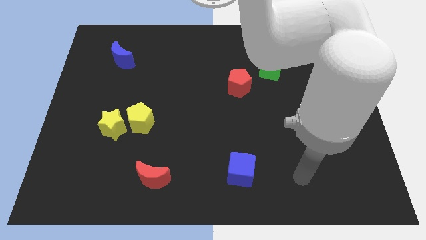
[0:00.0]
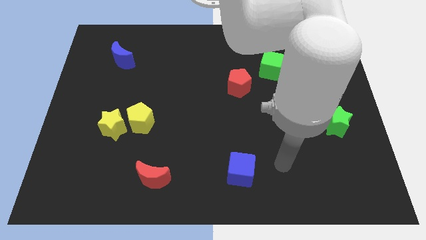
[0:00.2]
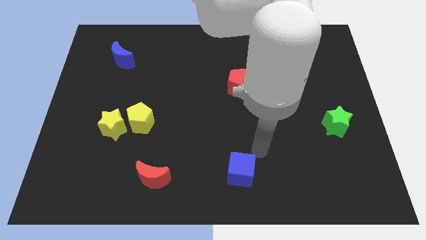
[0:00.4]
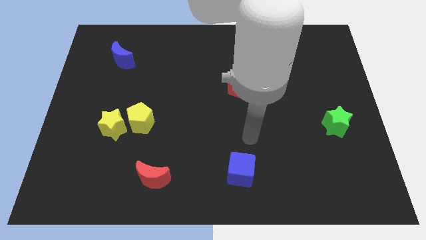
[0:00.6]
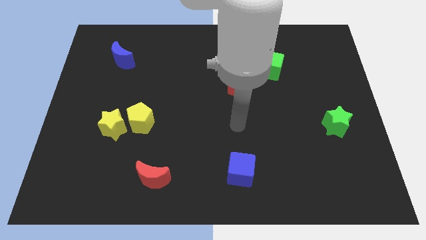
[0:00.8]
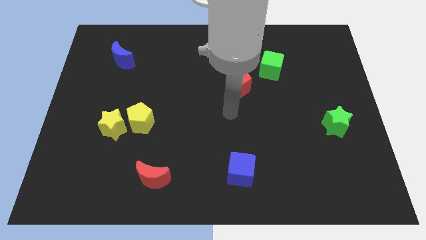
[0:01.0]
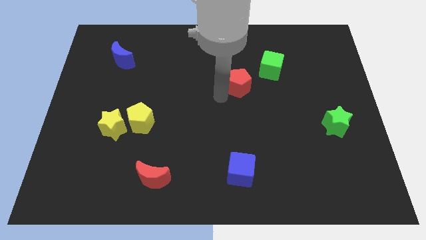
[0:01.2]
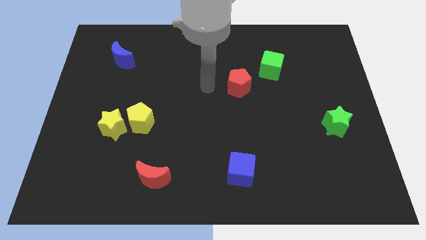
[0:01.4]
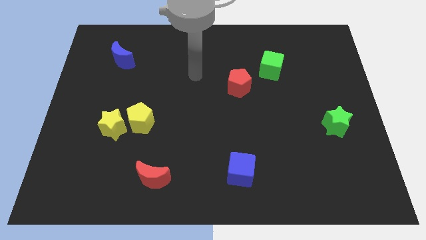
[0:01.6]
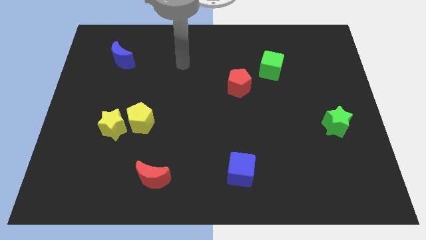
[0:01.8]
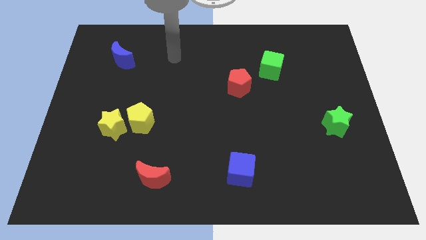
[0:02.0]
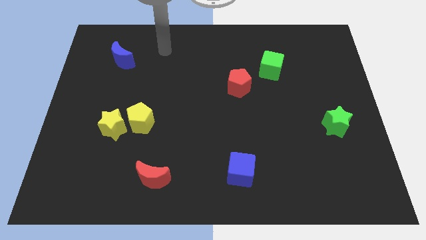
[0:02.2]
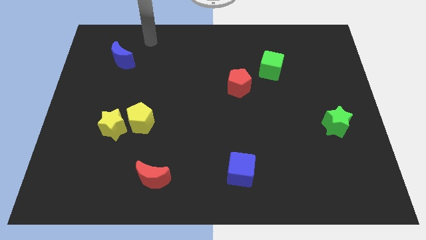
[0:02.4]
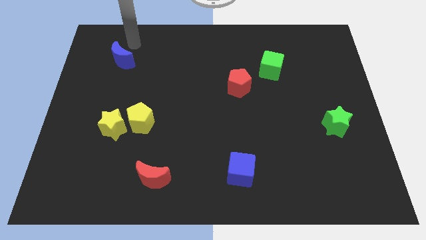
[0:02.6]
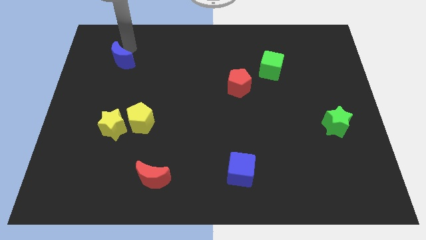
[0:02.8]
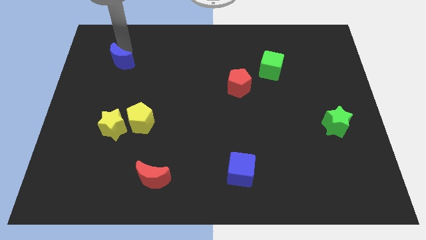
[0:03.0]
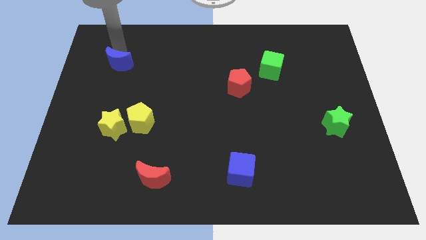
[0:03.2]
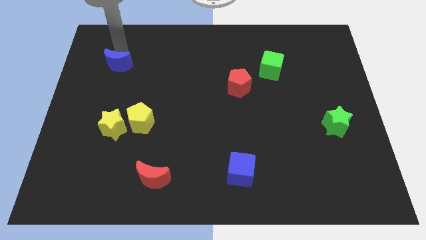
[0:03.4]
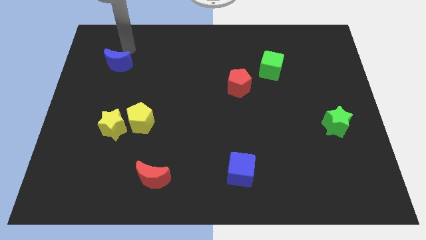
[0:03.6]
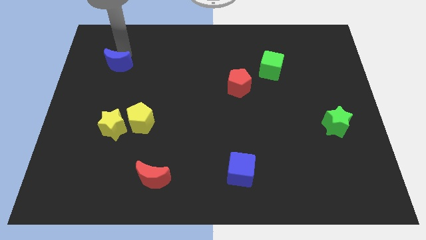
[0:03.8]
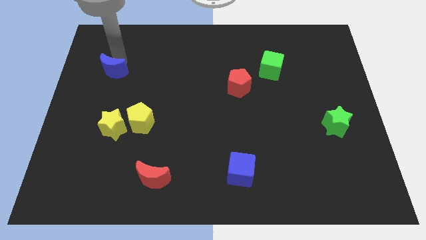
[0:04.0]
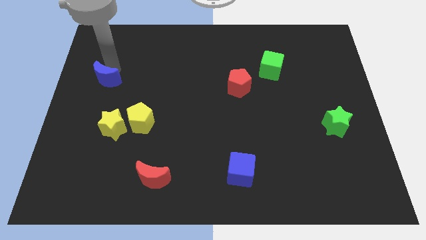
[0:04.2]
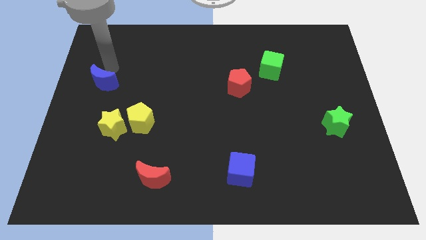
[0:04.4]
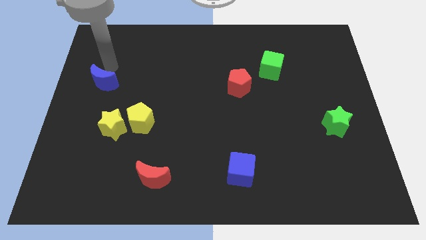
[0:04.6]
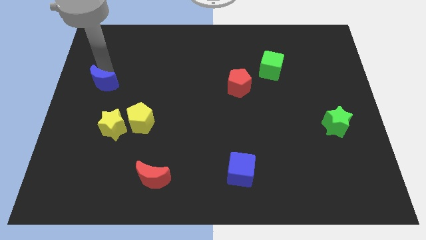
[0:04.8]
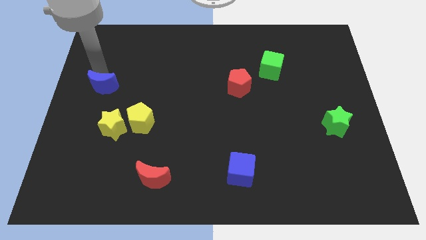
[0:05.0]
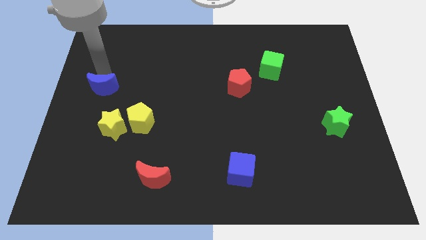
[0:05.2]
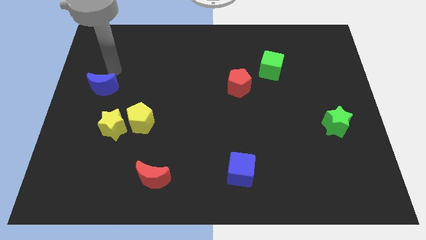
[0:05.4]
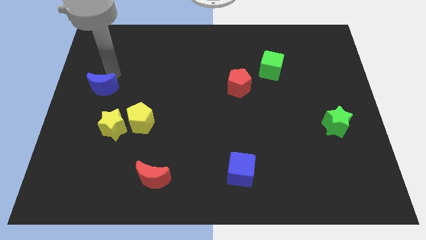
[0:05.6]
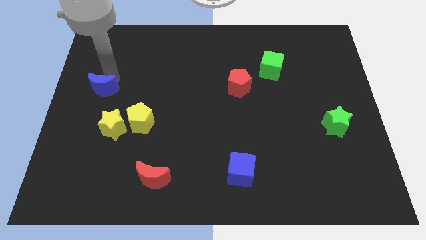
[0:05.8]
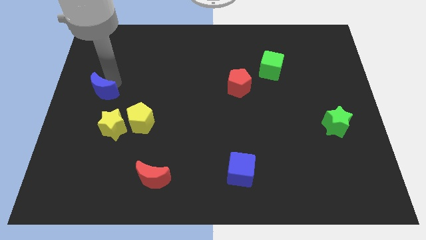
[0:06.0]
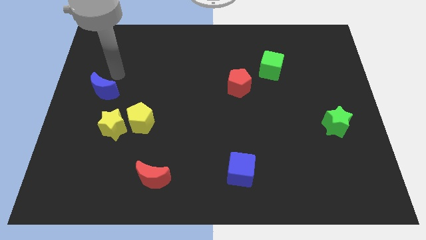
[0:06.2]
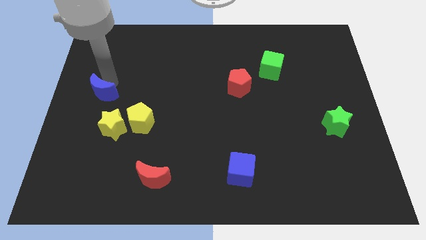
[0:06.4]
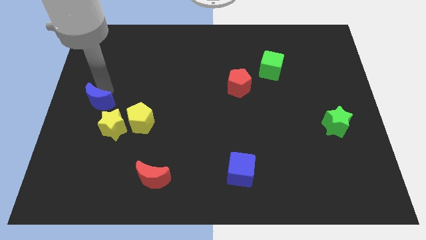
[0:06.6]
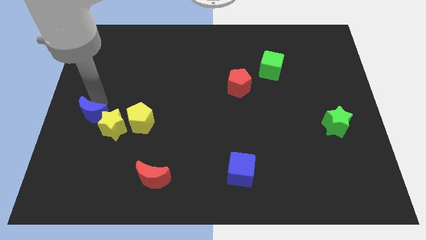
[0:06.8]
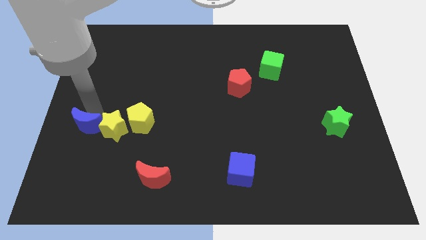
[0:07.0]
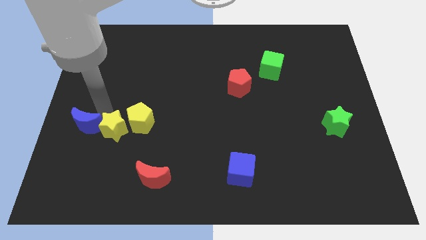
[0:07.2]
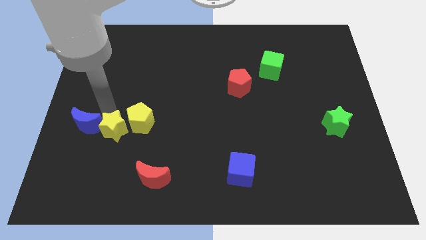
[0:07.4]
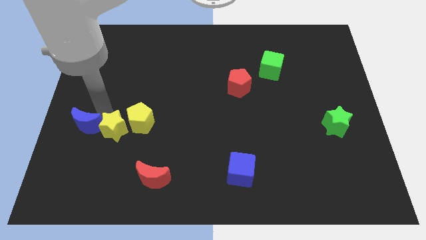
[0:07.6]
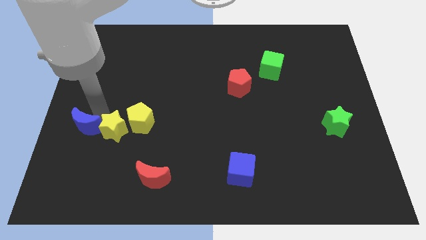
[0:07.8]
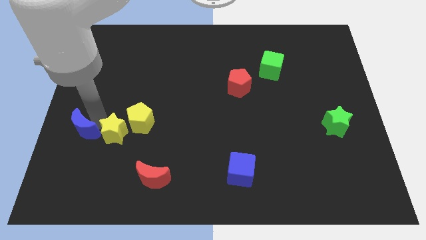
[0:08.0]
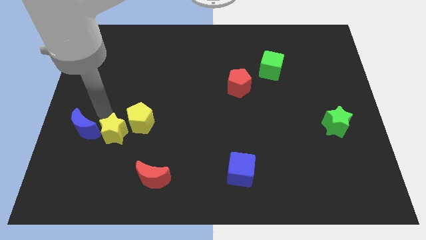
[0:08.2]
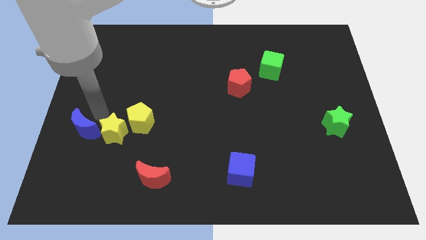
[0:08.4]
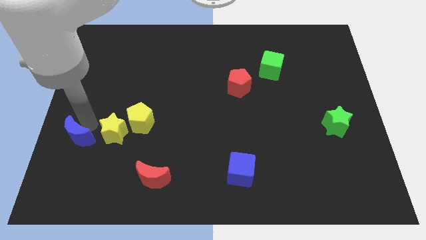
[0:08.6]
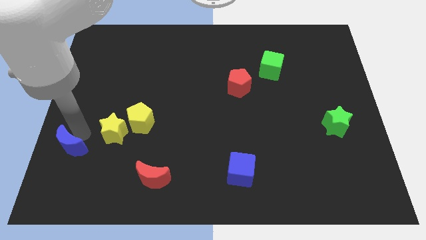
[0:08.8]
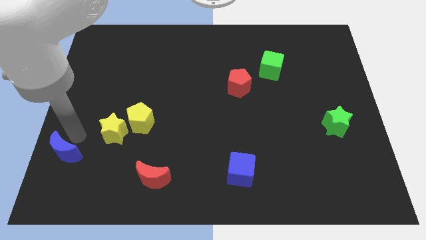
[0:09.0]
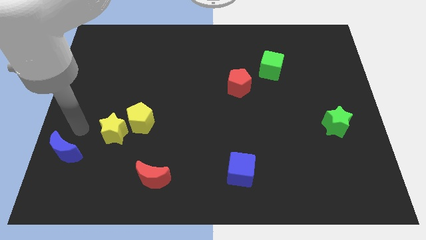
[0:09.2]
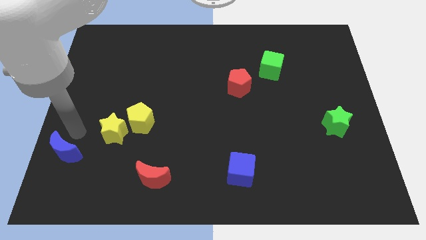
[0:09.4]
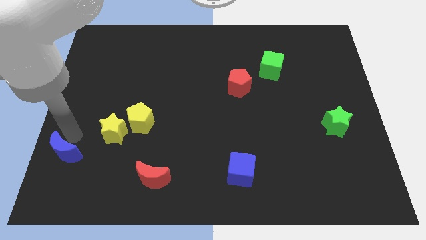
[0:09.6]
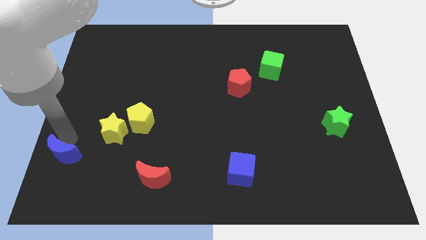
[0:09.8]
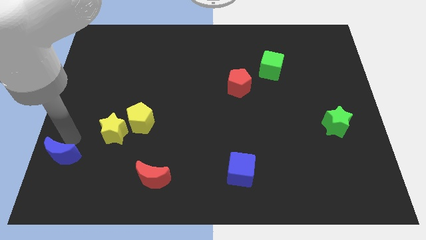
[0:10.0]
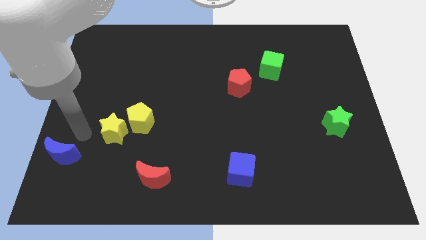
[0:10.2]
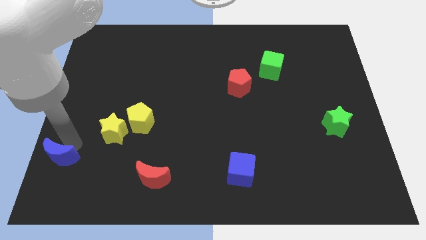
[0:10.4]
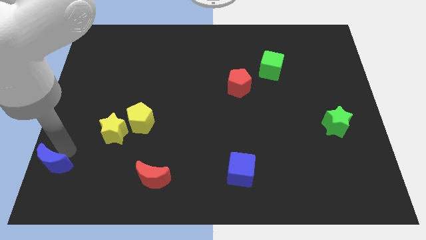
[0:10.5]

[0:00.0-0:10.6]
slide the blue moon to the bottom left of the board

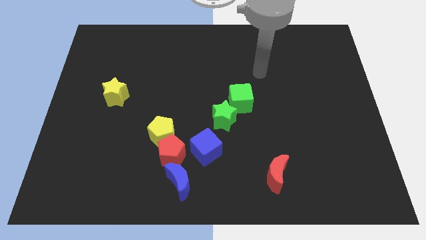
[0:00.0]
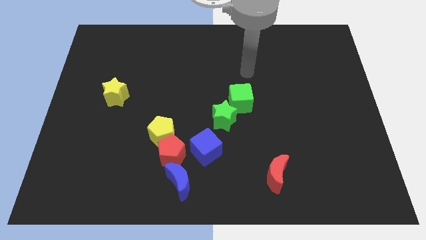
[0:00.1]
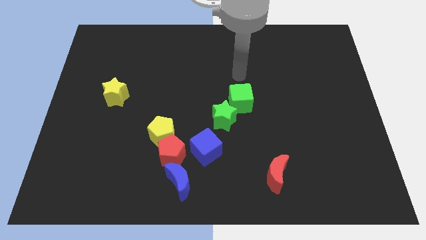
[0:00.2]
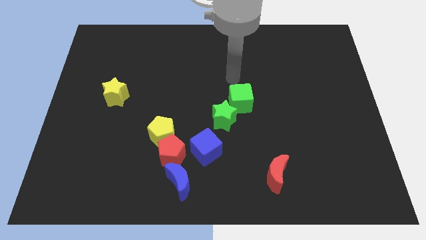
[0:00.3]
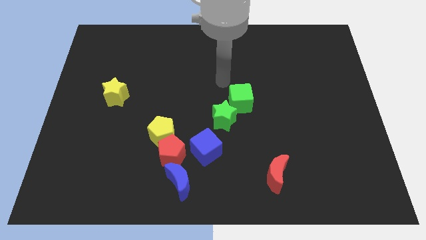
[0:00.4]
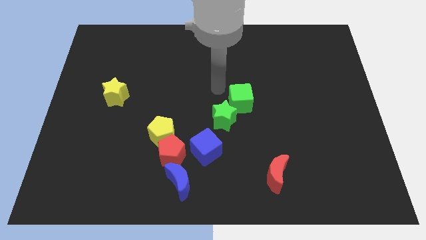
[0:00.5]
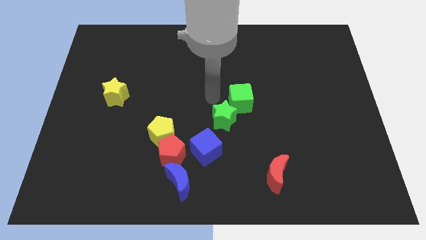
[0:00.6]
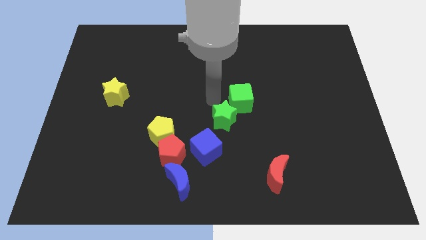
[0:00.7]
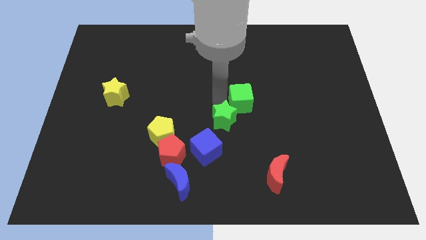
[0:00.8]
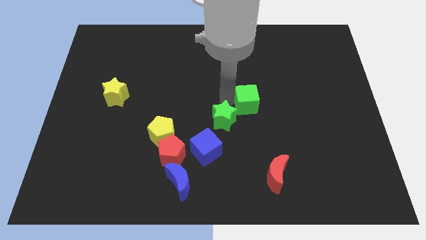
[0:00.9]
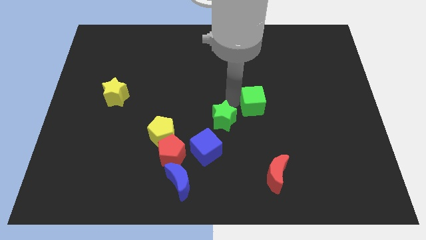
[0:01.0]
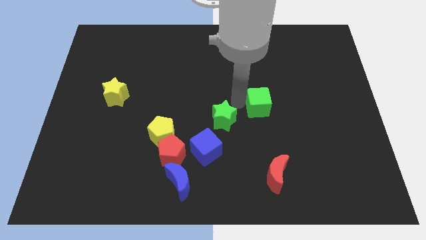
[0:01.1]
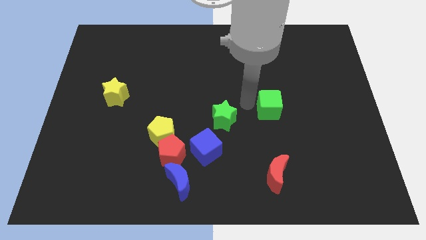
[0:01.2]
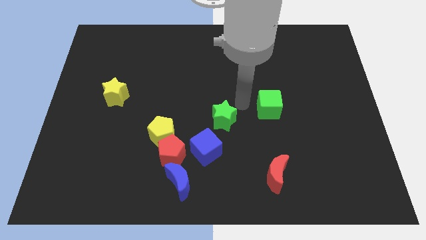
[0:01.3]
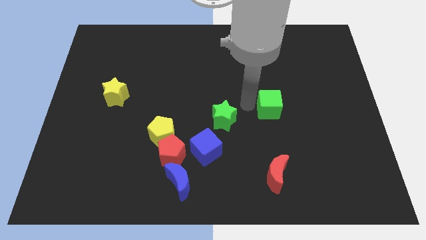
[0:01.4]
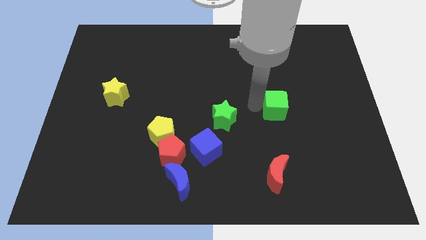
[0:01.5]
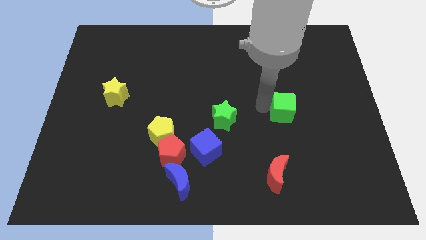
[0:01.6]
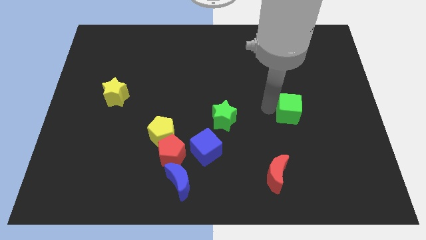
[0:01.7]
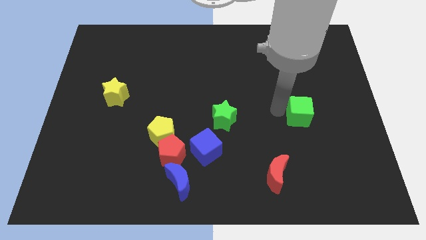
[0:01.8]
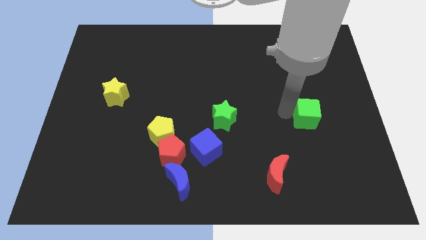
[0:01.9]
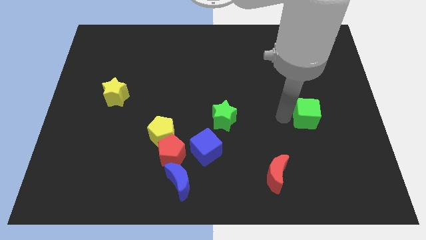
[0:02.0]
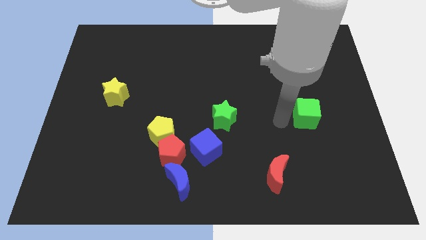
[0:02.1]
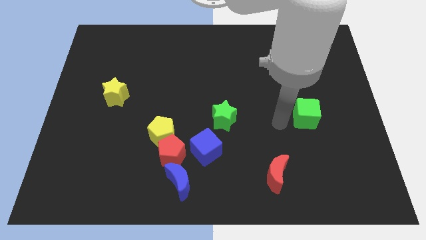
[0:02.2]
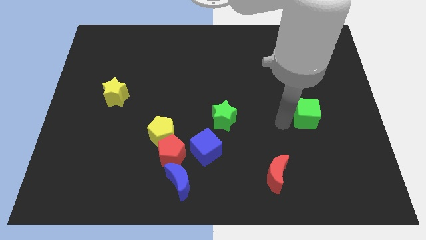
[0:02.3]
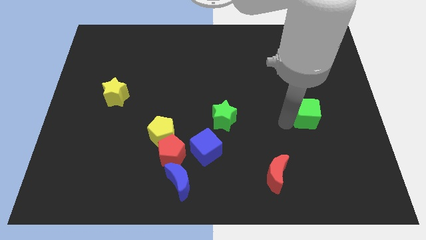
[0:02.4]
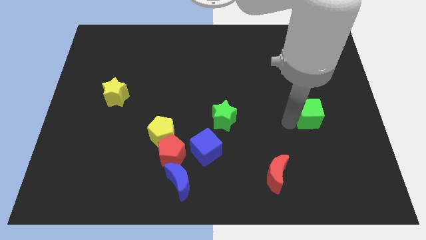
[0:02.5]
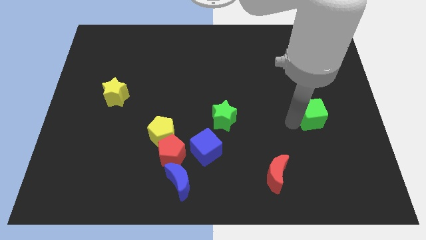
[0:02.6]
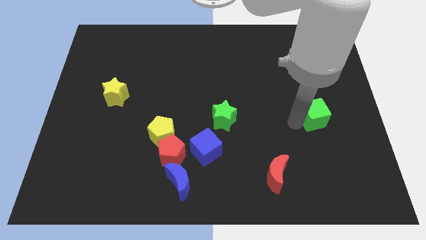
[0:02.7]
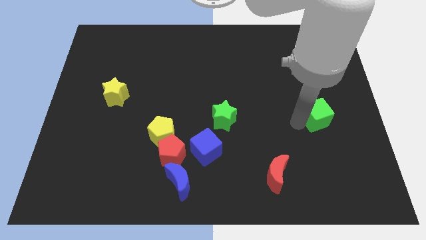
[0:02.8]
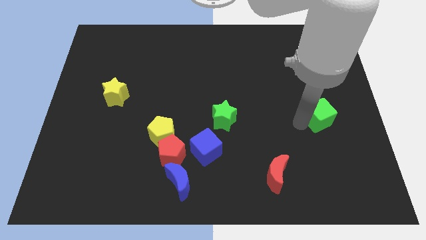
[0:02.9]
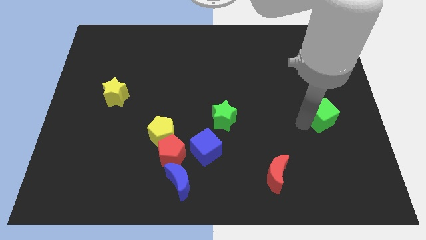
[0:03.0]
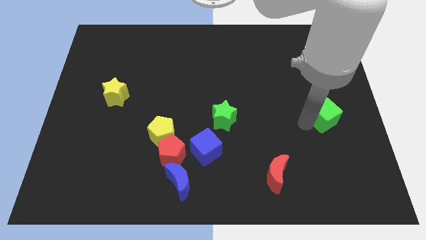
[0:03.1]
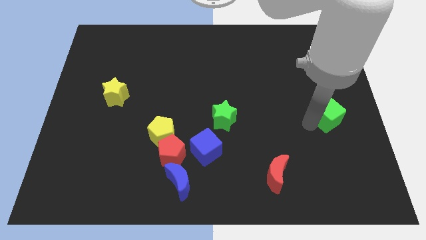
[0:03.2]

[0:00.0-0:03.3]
slide the green cube to the center right
